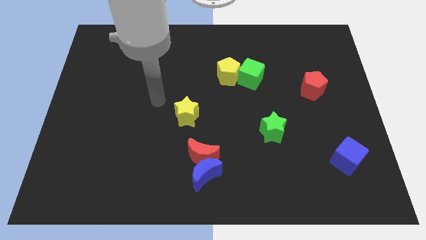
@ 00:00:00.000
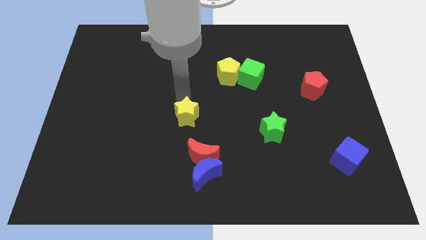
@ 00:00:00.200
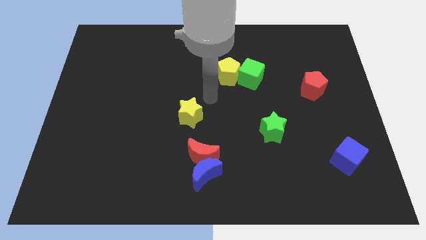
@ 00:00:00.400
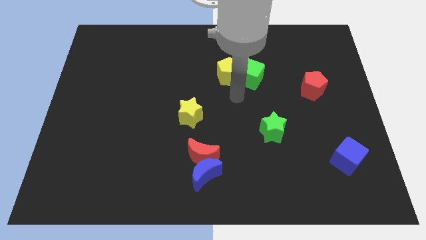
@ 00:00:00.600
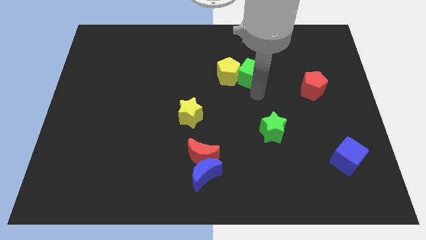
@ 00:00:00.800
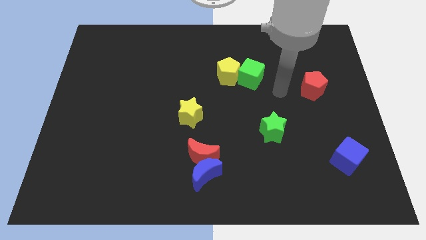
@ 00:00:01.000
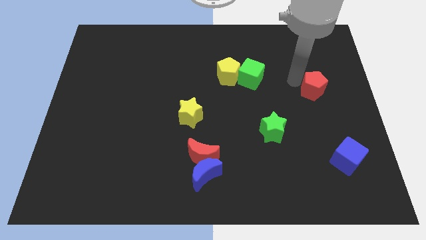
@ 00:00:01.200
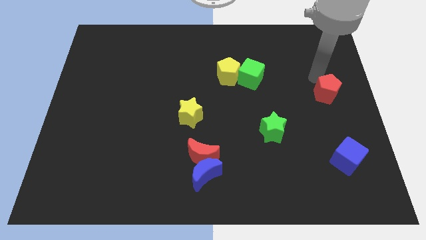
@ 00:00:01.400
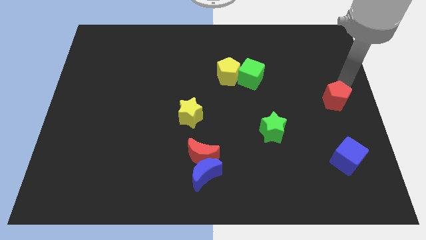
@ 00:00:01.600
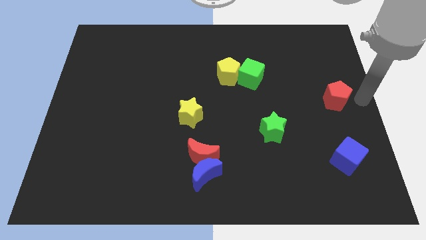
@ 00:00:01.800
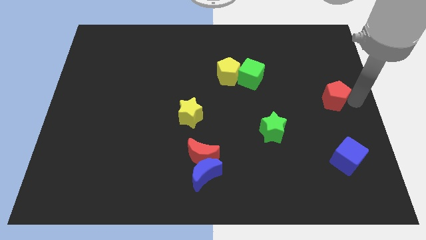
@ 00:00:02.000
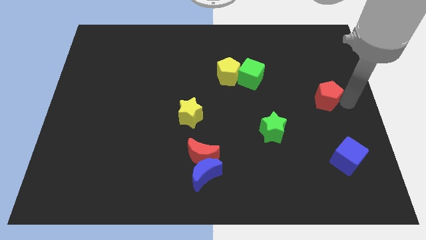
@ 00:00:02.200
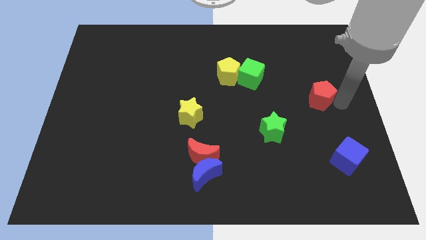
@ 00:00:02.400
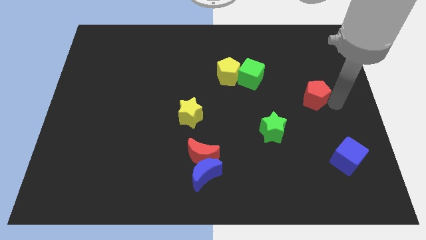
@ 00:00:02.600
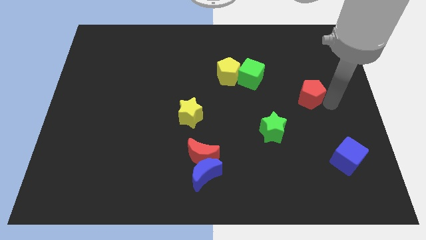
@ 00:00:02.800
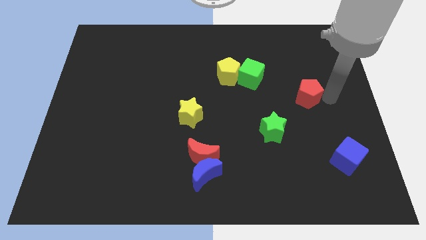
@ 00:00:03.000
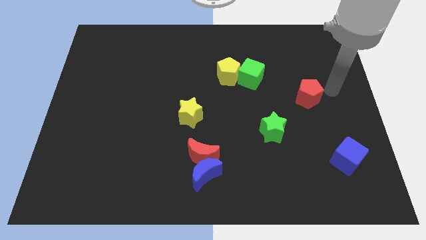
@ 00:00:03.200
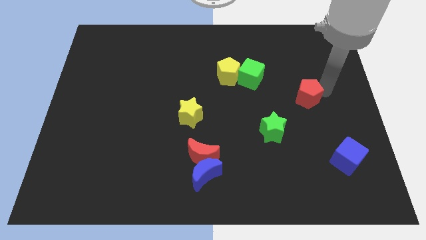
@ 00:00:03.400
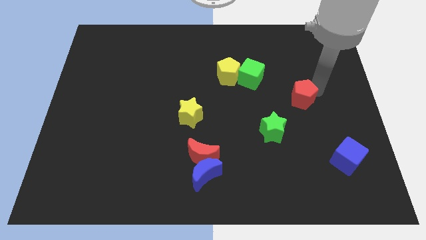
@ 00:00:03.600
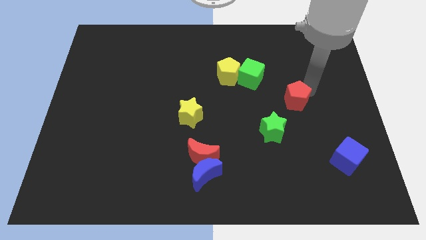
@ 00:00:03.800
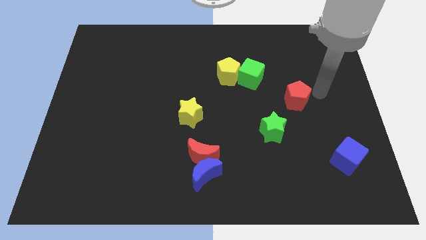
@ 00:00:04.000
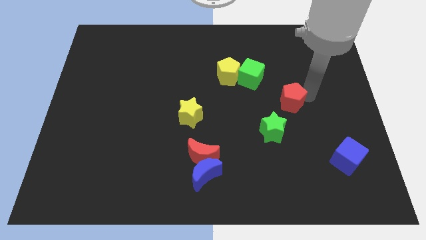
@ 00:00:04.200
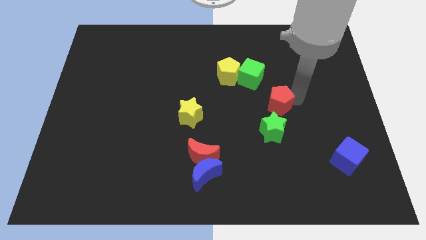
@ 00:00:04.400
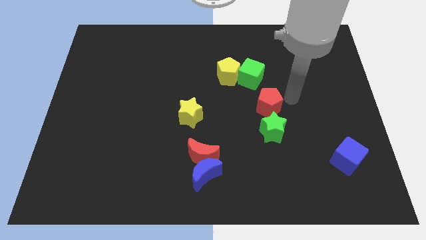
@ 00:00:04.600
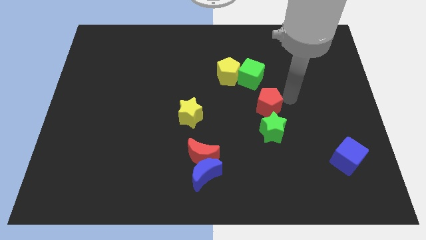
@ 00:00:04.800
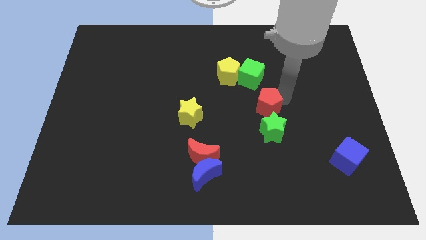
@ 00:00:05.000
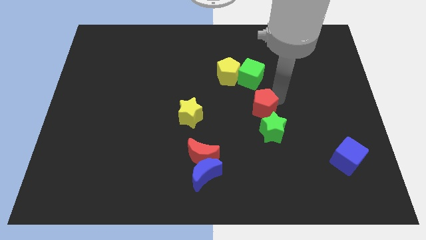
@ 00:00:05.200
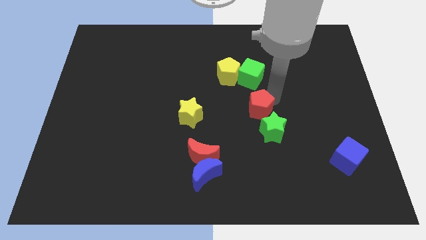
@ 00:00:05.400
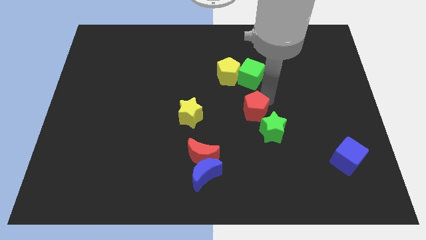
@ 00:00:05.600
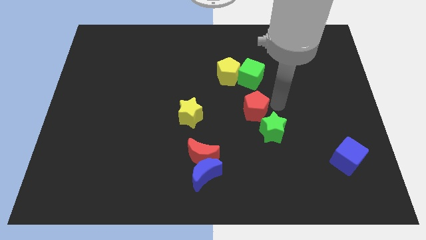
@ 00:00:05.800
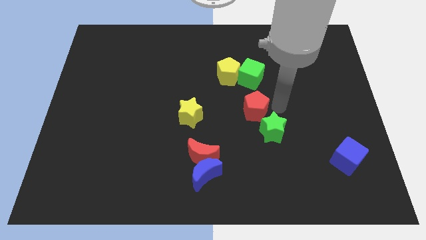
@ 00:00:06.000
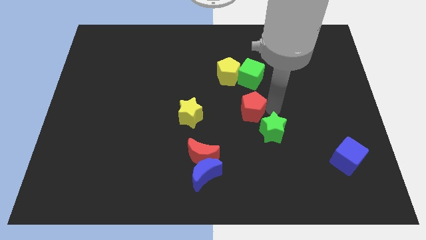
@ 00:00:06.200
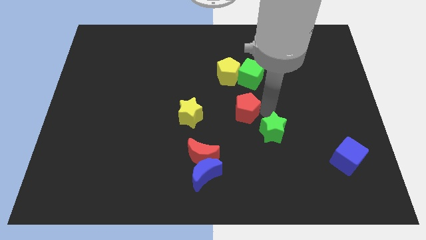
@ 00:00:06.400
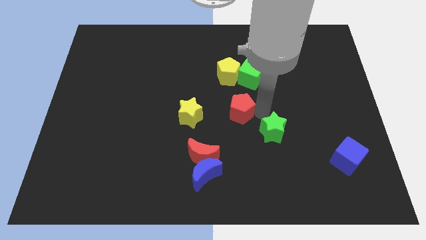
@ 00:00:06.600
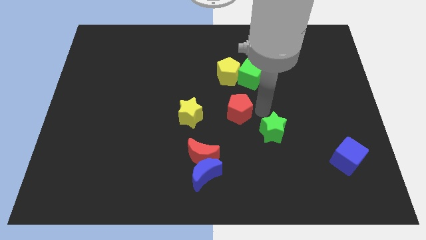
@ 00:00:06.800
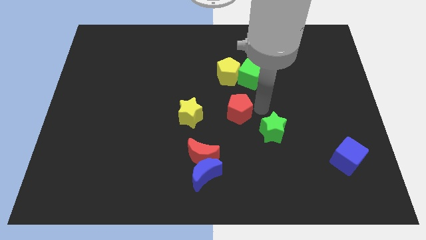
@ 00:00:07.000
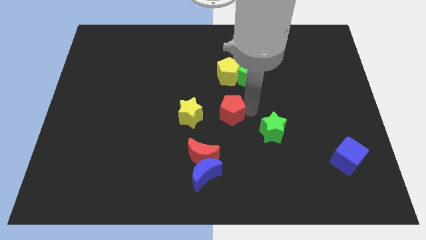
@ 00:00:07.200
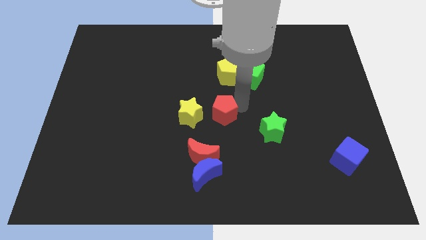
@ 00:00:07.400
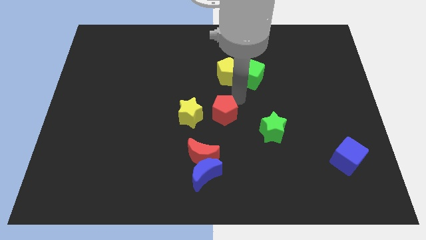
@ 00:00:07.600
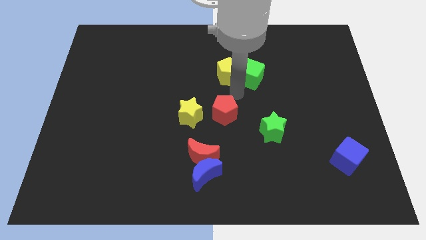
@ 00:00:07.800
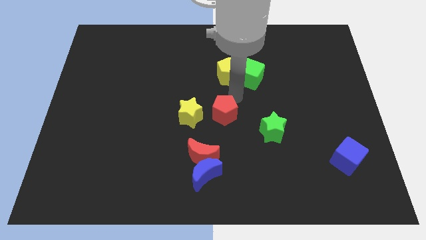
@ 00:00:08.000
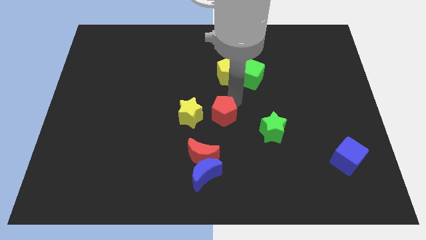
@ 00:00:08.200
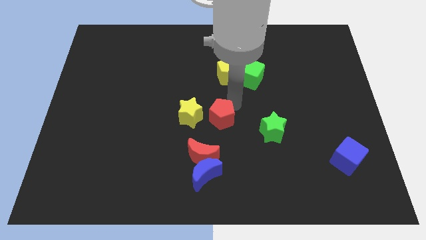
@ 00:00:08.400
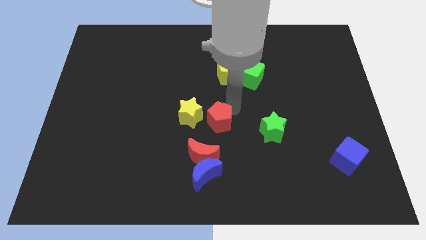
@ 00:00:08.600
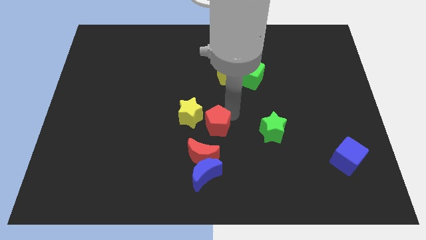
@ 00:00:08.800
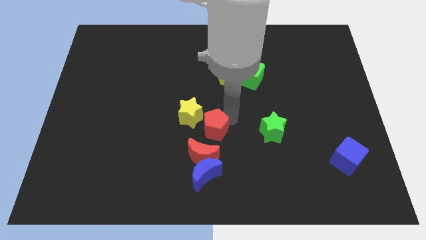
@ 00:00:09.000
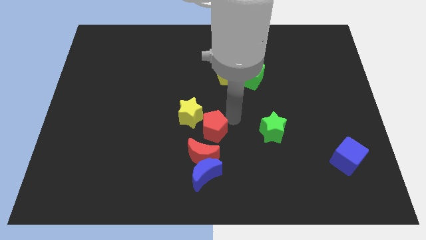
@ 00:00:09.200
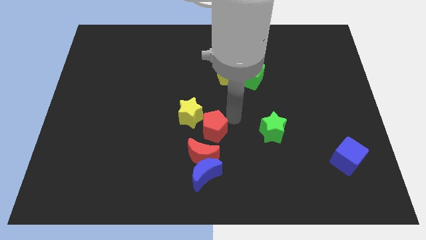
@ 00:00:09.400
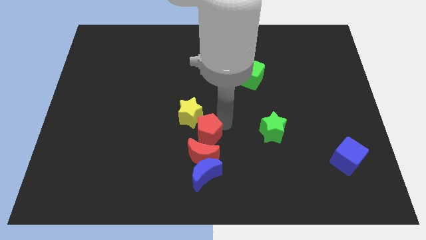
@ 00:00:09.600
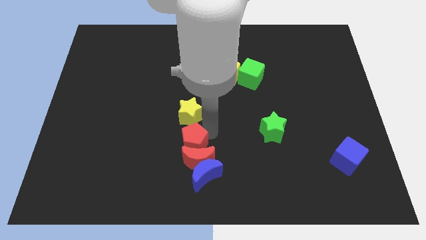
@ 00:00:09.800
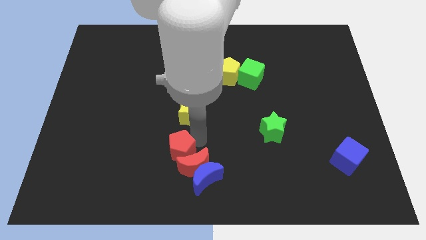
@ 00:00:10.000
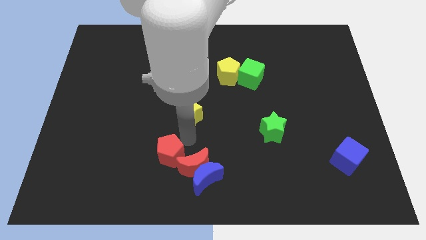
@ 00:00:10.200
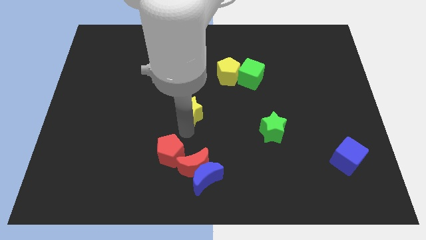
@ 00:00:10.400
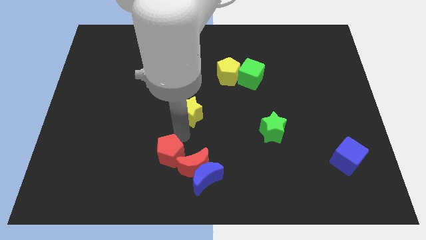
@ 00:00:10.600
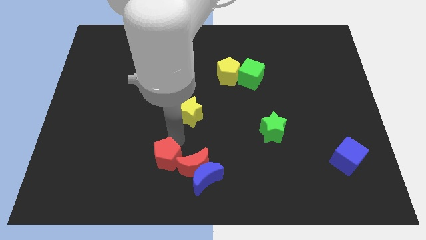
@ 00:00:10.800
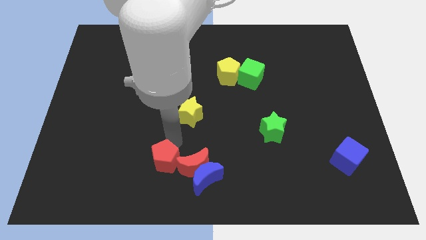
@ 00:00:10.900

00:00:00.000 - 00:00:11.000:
slide the red pentagon just left of the blue moon
